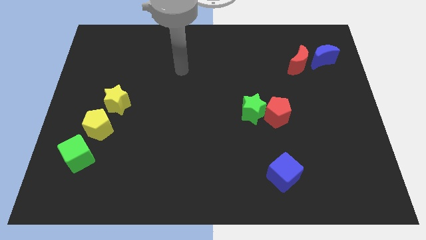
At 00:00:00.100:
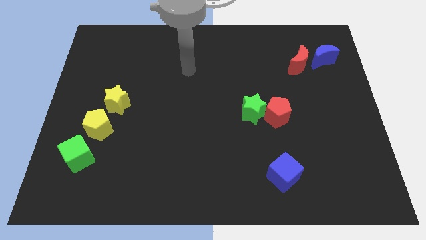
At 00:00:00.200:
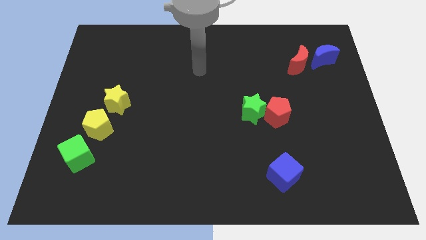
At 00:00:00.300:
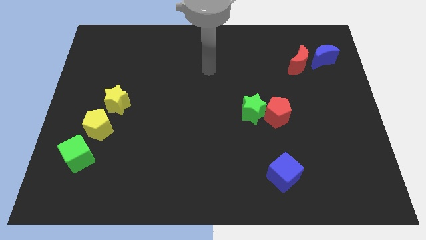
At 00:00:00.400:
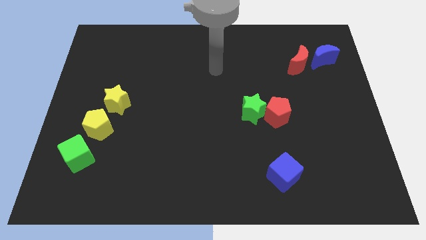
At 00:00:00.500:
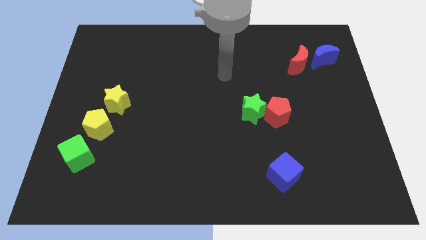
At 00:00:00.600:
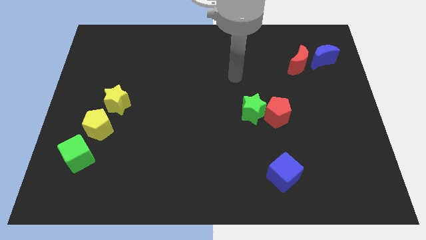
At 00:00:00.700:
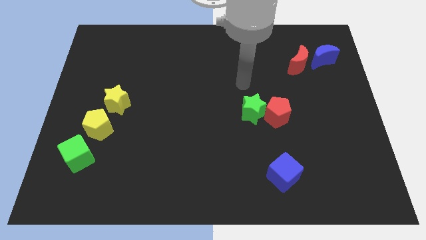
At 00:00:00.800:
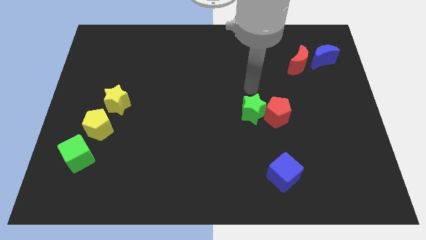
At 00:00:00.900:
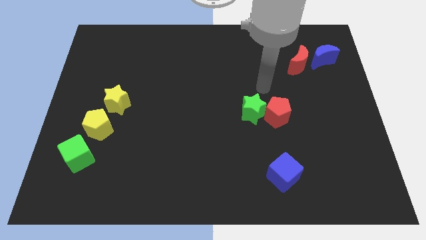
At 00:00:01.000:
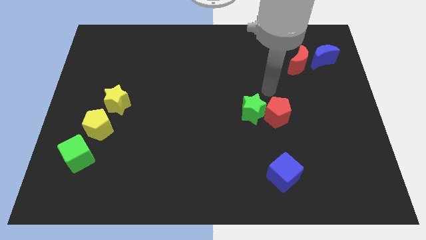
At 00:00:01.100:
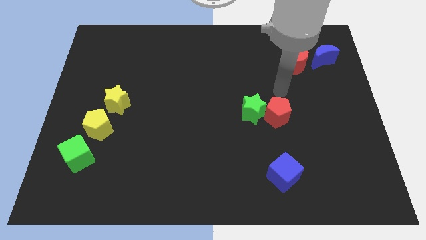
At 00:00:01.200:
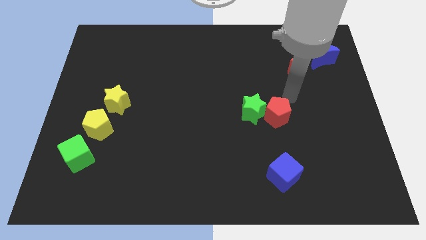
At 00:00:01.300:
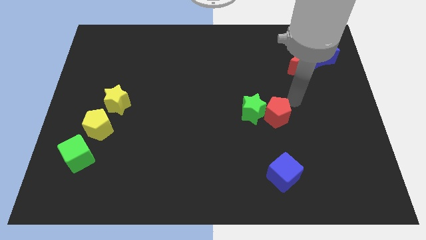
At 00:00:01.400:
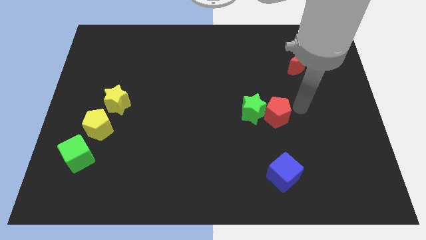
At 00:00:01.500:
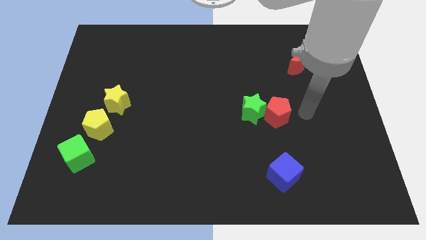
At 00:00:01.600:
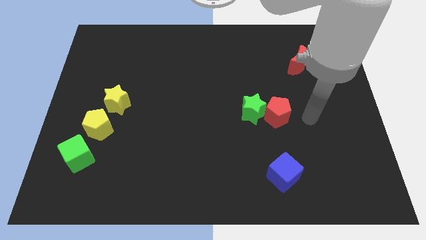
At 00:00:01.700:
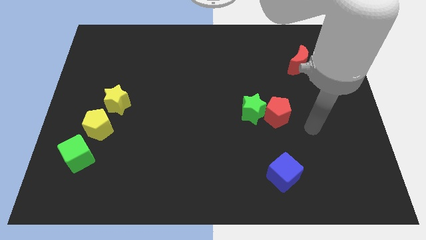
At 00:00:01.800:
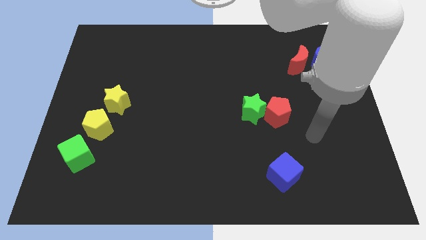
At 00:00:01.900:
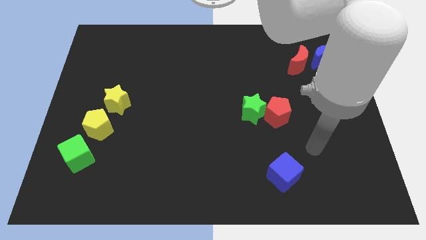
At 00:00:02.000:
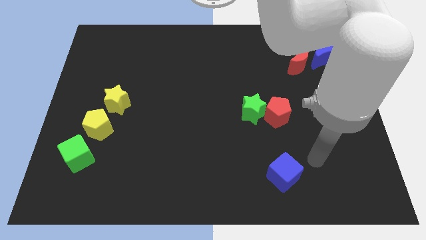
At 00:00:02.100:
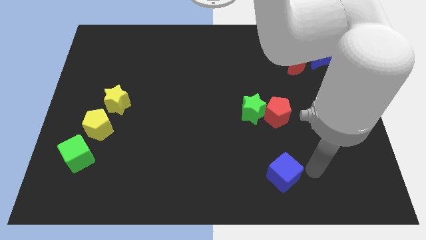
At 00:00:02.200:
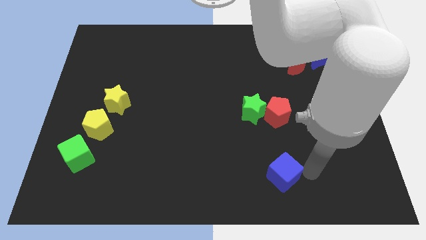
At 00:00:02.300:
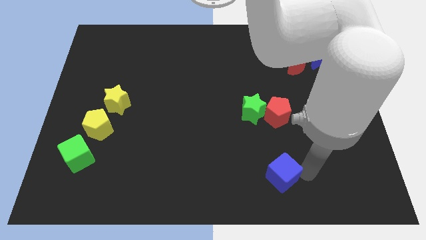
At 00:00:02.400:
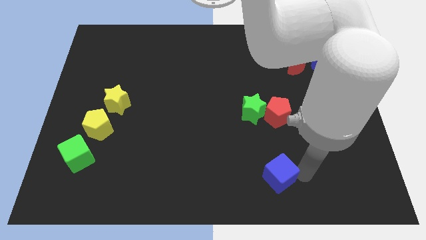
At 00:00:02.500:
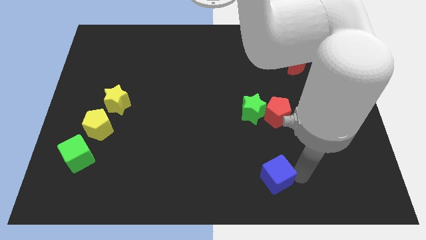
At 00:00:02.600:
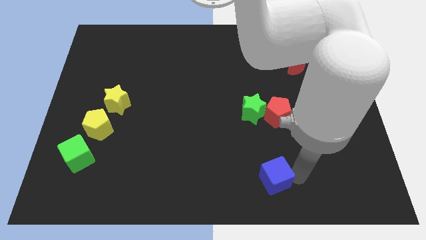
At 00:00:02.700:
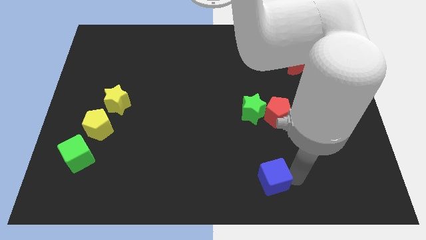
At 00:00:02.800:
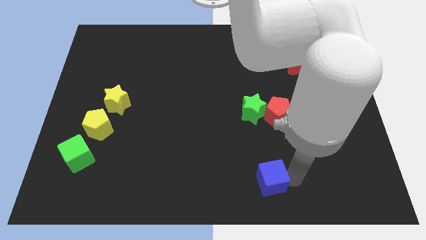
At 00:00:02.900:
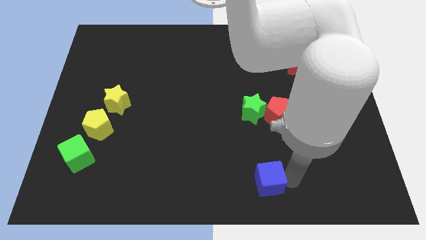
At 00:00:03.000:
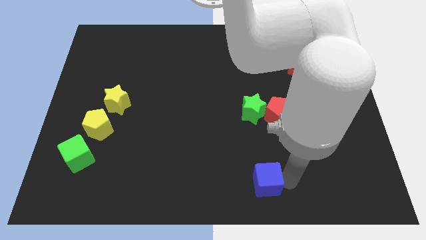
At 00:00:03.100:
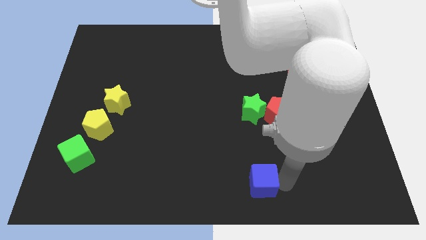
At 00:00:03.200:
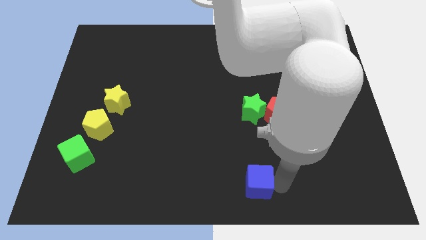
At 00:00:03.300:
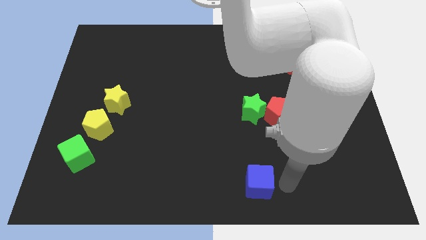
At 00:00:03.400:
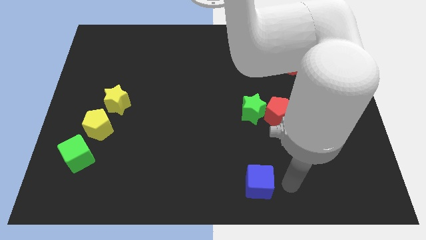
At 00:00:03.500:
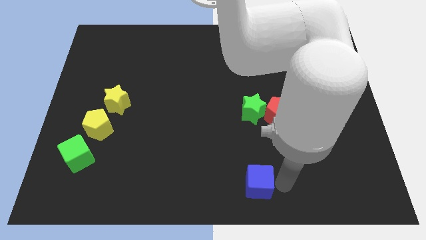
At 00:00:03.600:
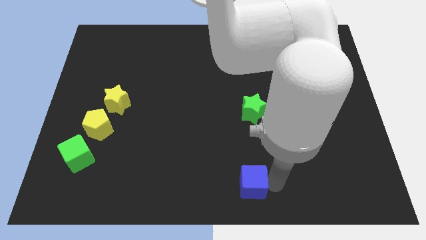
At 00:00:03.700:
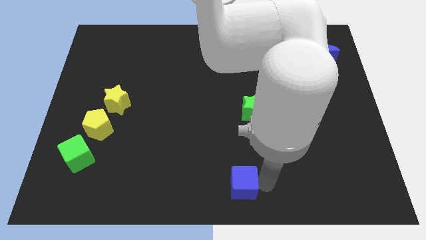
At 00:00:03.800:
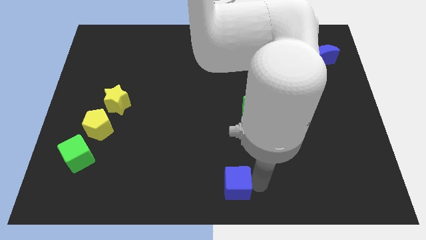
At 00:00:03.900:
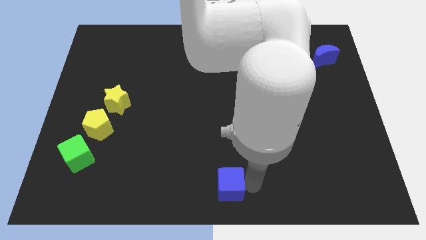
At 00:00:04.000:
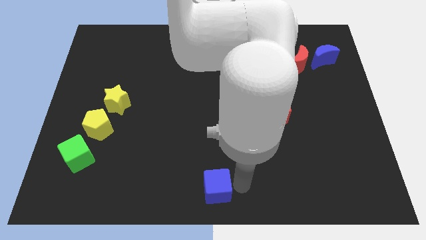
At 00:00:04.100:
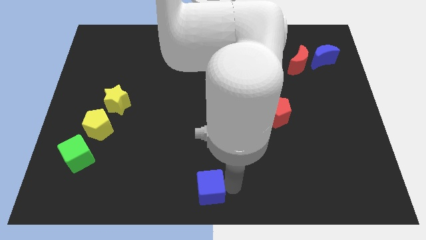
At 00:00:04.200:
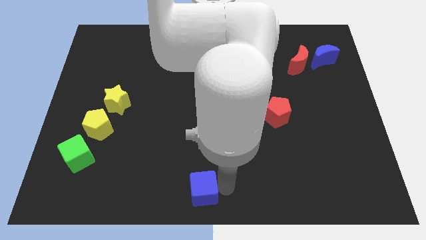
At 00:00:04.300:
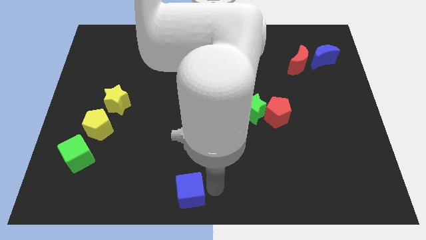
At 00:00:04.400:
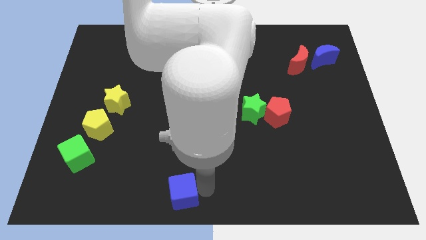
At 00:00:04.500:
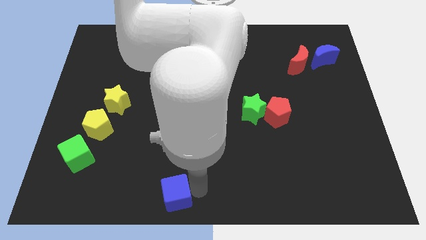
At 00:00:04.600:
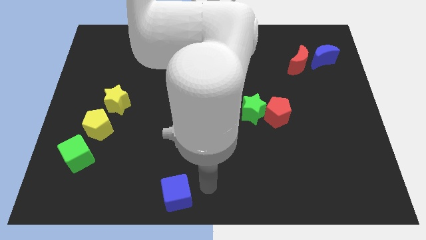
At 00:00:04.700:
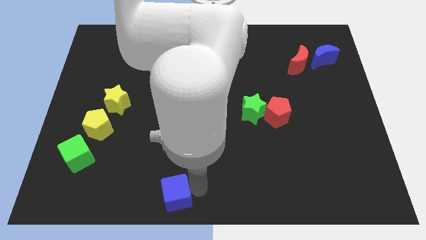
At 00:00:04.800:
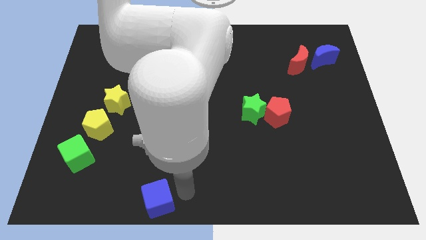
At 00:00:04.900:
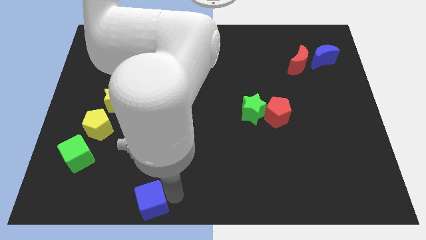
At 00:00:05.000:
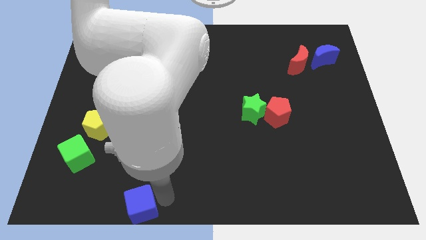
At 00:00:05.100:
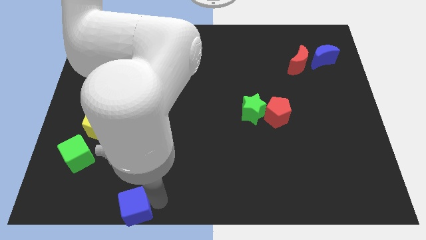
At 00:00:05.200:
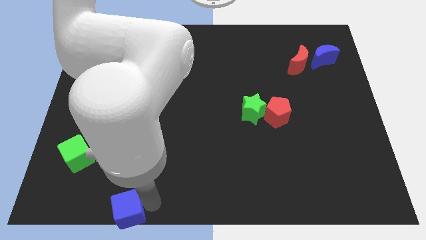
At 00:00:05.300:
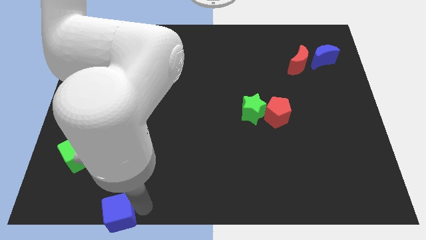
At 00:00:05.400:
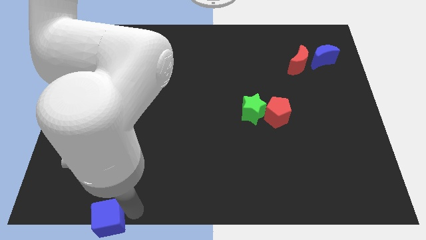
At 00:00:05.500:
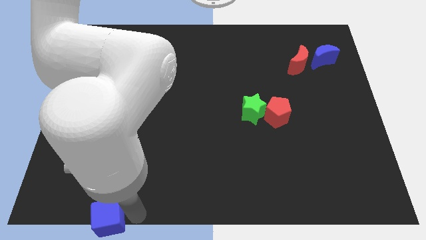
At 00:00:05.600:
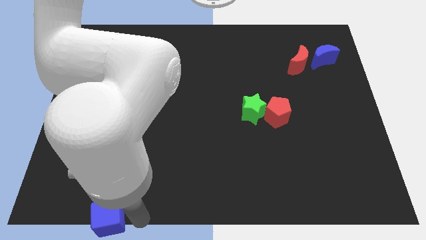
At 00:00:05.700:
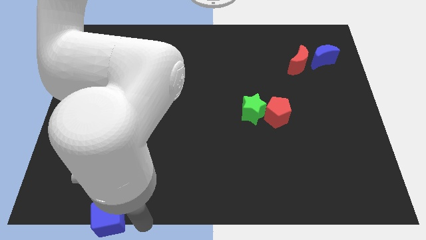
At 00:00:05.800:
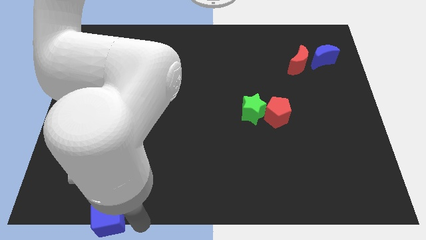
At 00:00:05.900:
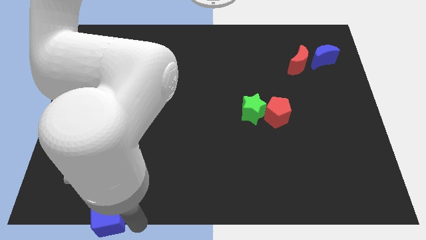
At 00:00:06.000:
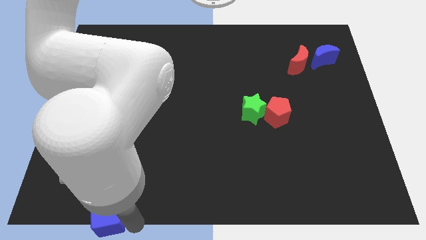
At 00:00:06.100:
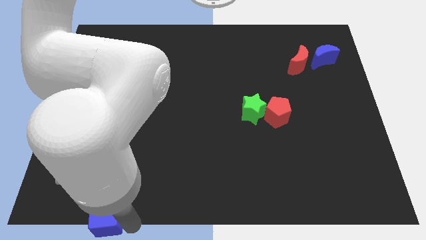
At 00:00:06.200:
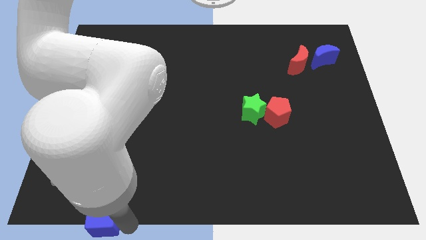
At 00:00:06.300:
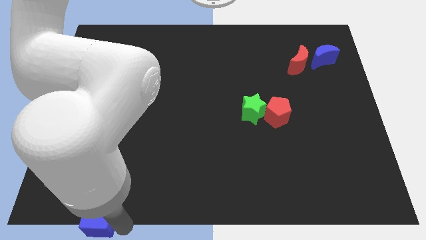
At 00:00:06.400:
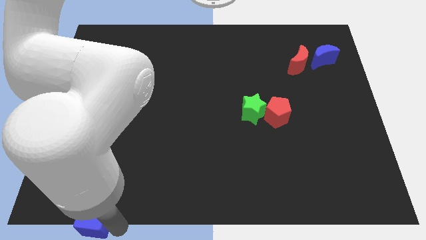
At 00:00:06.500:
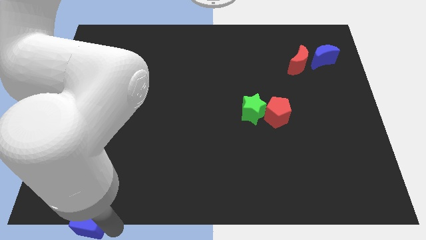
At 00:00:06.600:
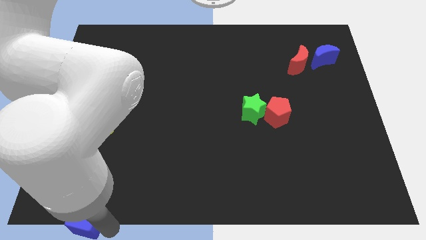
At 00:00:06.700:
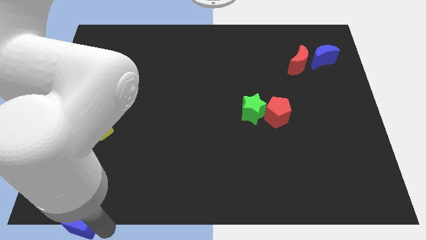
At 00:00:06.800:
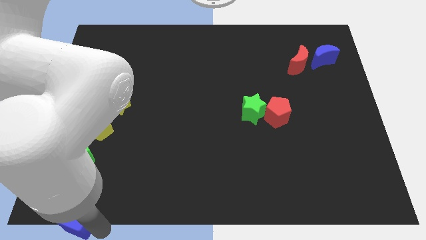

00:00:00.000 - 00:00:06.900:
slide the blue cube to the bottom left corner
